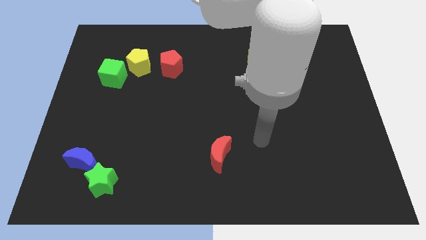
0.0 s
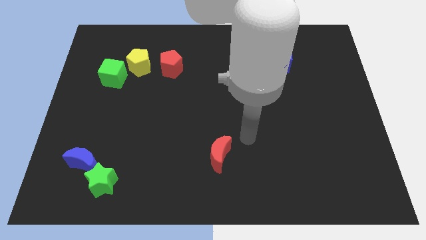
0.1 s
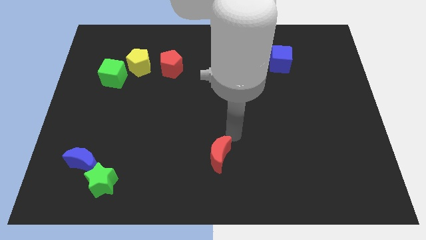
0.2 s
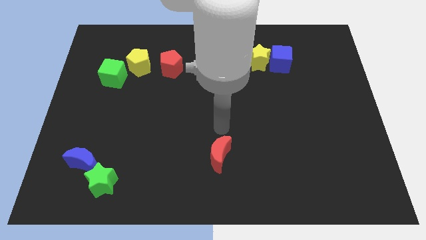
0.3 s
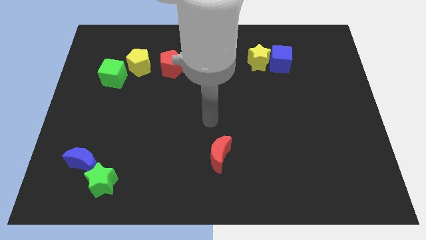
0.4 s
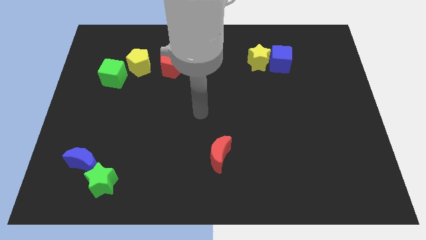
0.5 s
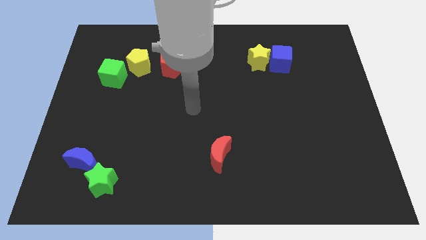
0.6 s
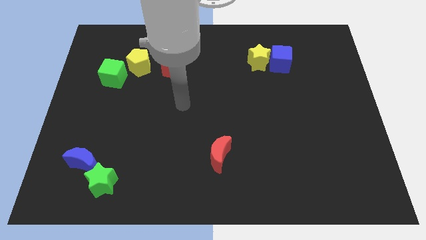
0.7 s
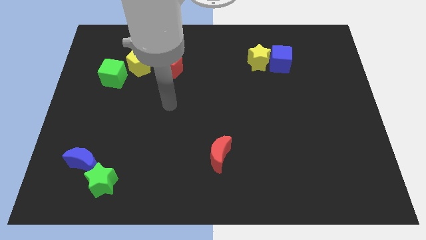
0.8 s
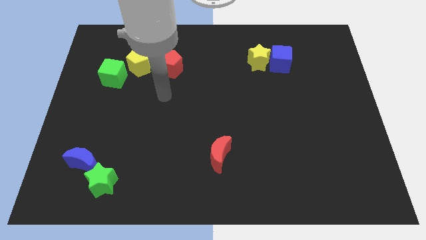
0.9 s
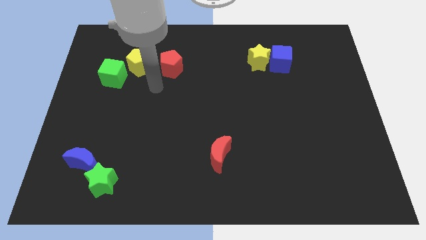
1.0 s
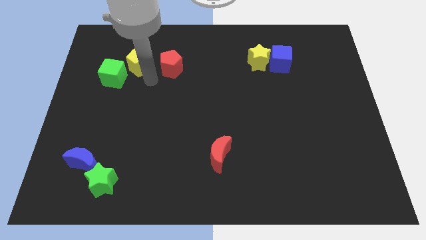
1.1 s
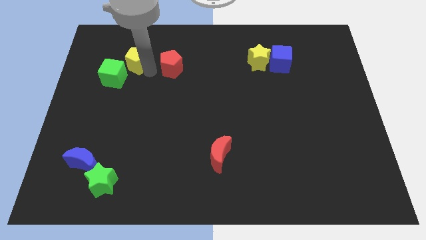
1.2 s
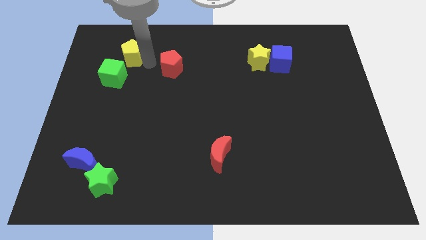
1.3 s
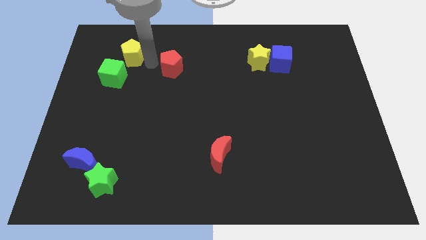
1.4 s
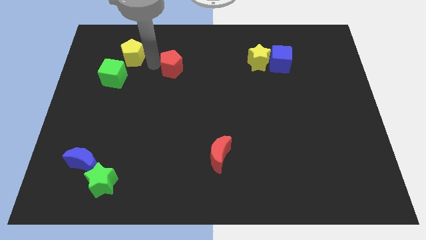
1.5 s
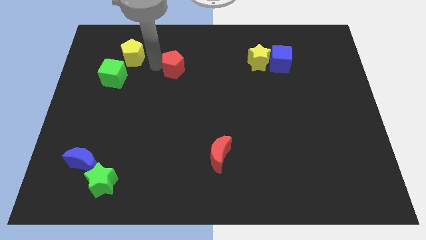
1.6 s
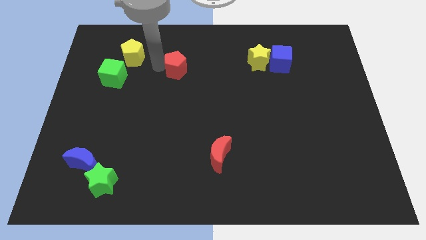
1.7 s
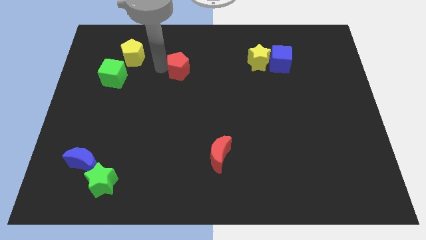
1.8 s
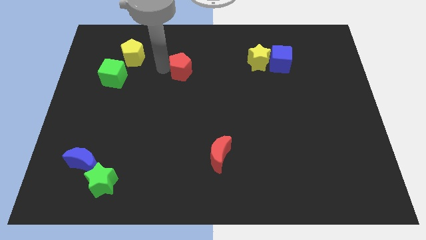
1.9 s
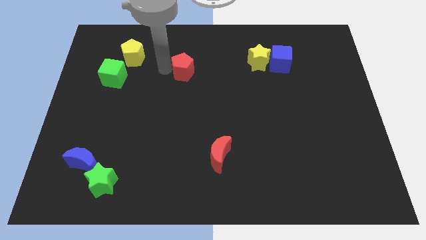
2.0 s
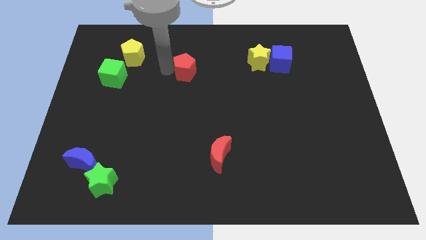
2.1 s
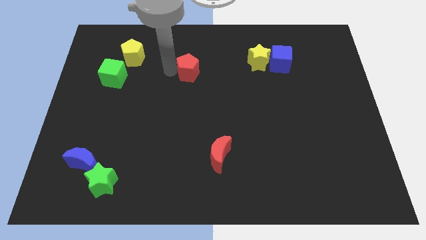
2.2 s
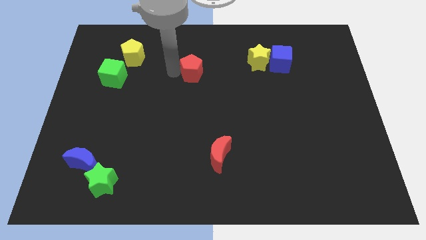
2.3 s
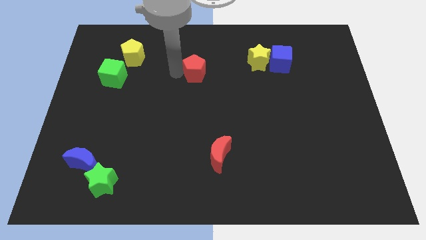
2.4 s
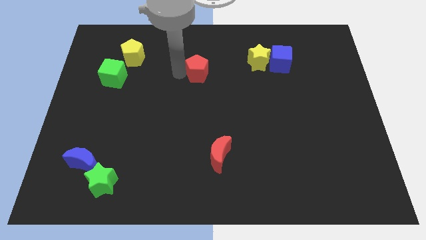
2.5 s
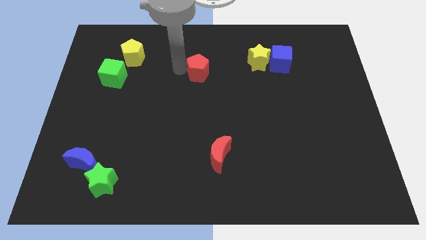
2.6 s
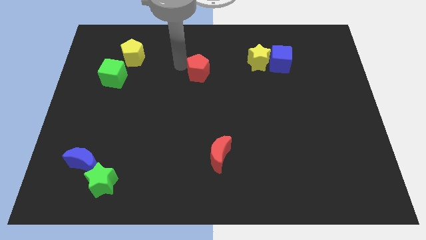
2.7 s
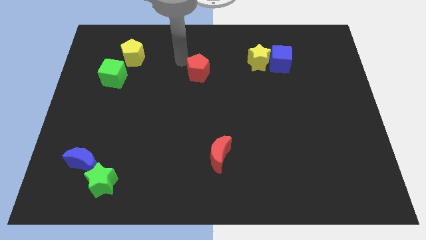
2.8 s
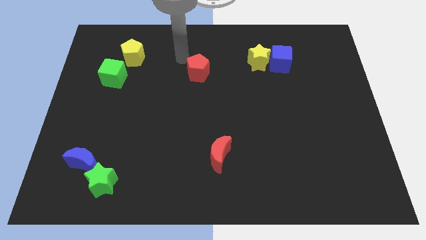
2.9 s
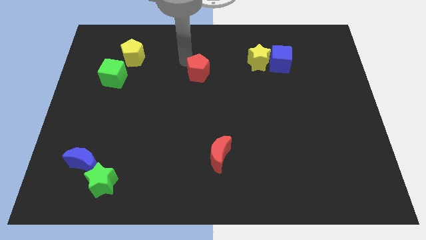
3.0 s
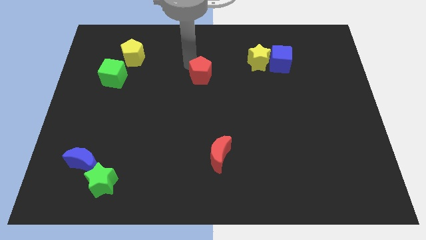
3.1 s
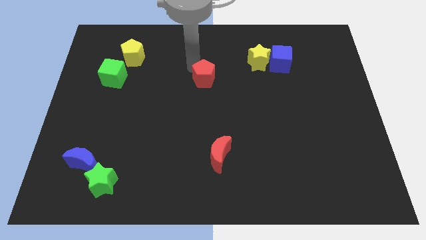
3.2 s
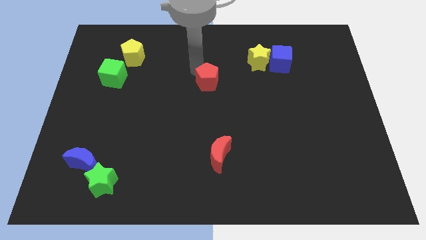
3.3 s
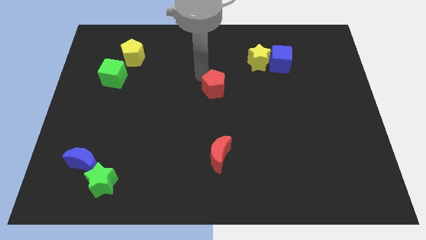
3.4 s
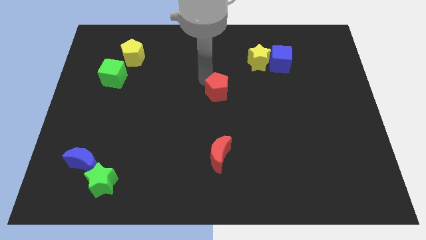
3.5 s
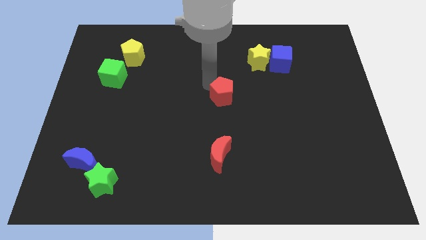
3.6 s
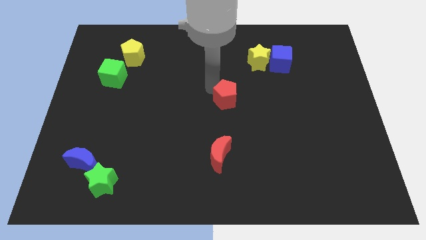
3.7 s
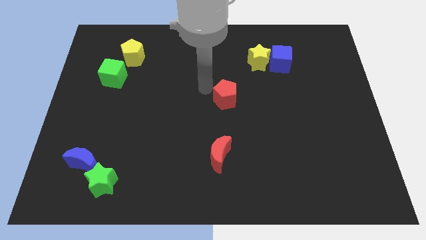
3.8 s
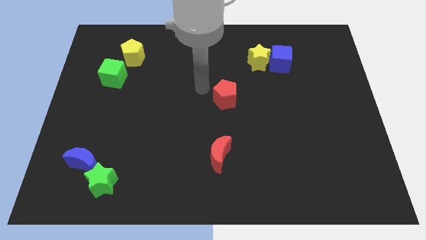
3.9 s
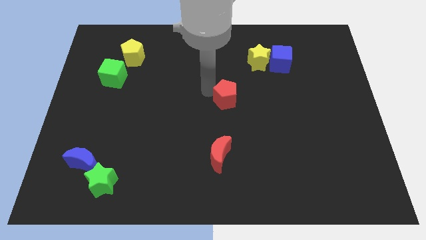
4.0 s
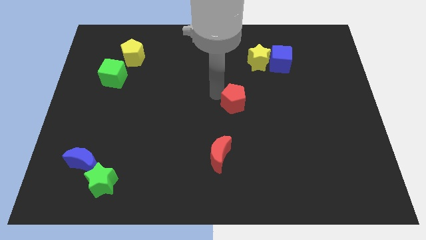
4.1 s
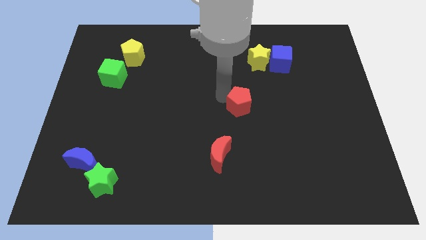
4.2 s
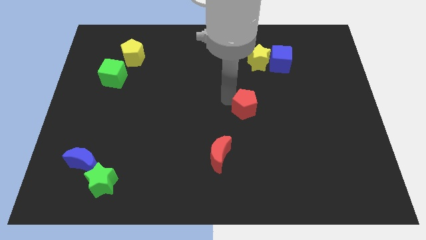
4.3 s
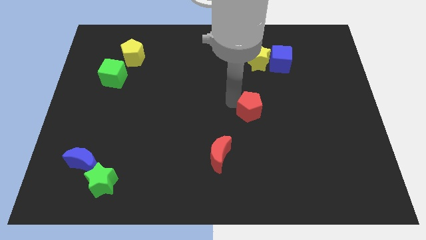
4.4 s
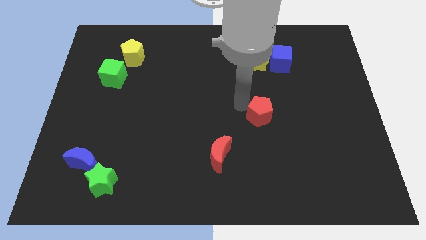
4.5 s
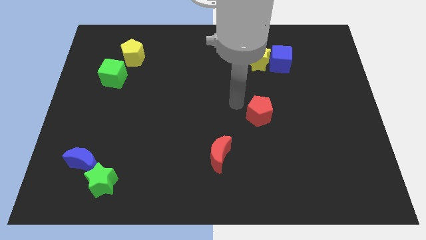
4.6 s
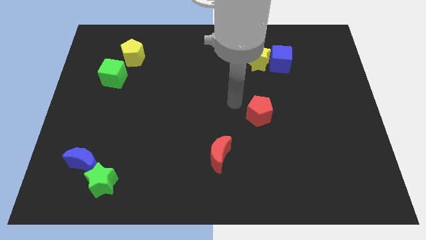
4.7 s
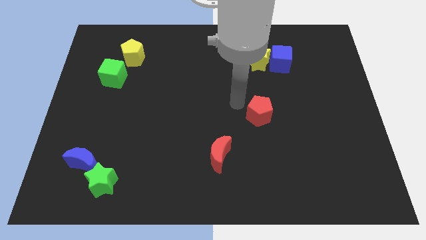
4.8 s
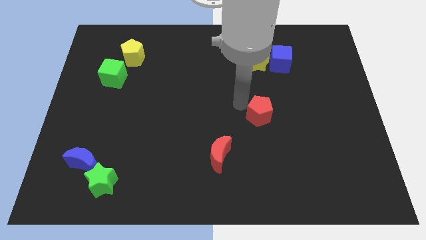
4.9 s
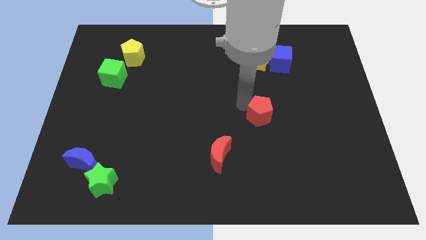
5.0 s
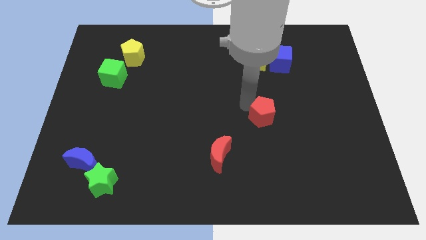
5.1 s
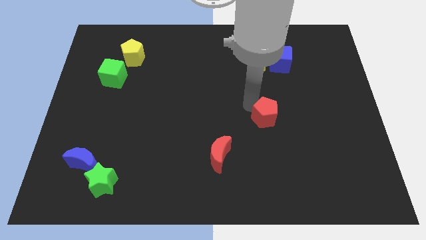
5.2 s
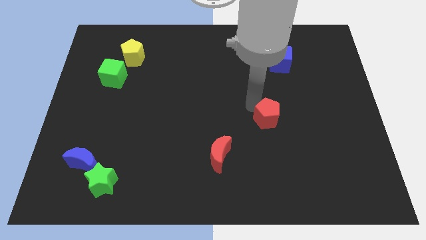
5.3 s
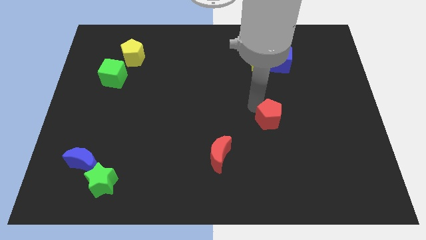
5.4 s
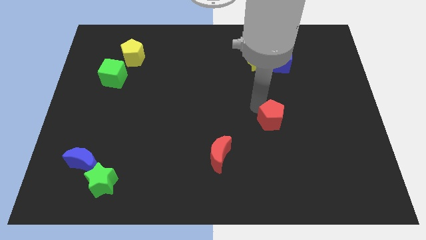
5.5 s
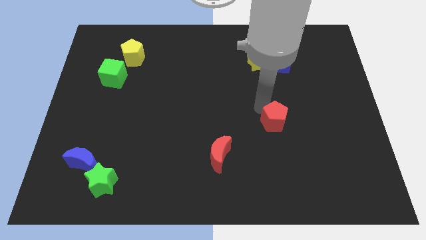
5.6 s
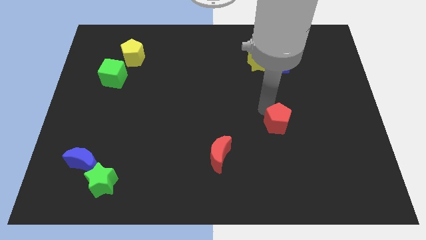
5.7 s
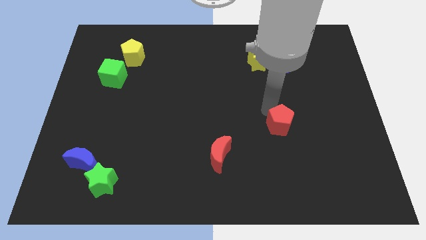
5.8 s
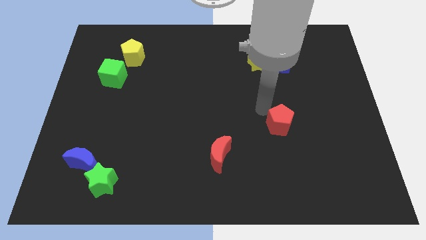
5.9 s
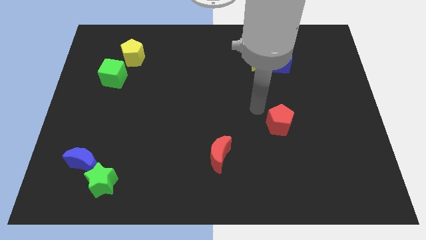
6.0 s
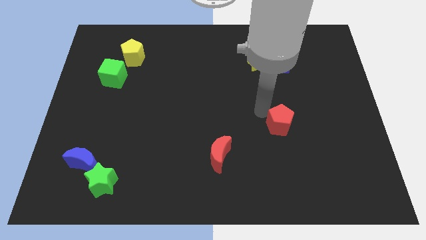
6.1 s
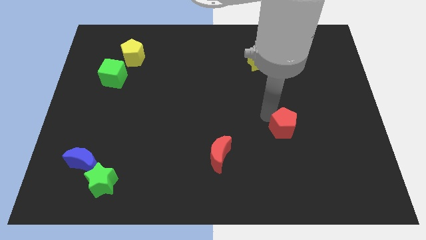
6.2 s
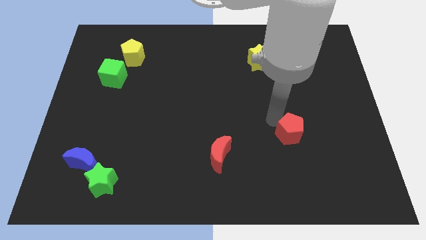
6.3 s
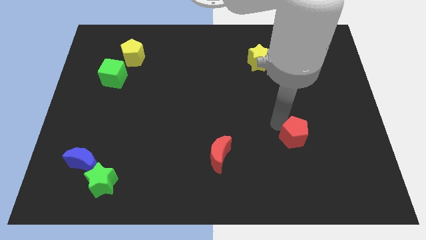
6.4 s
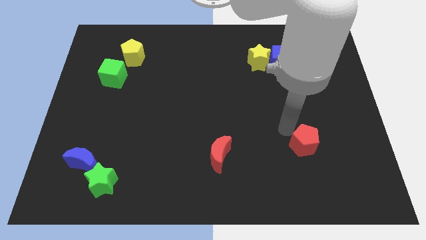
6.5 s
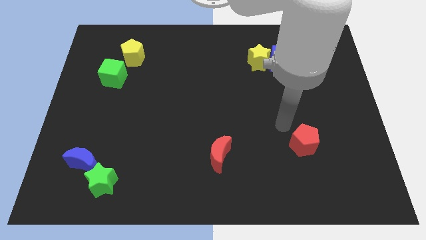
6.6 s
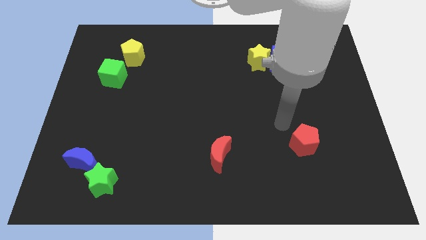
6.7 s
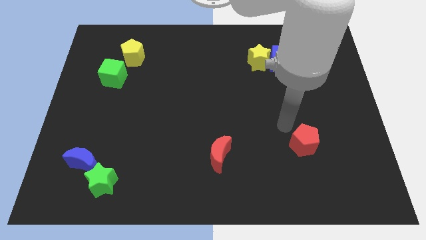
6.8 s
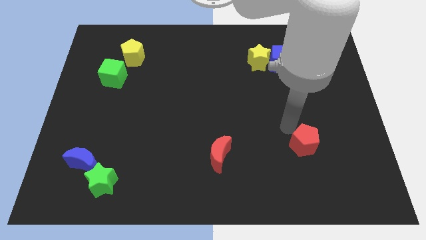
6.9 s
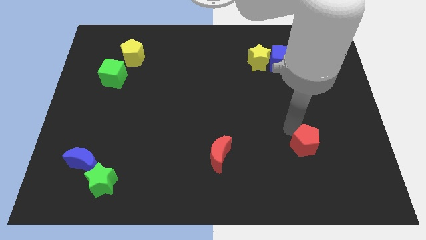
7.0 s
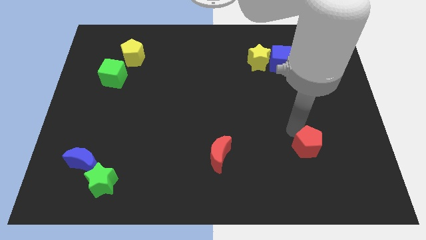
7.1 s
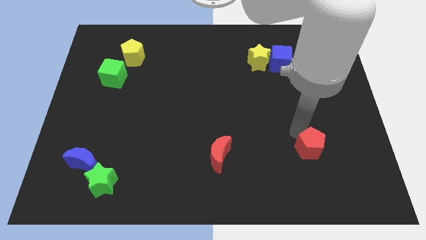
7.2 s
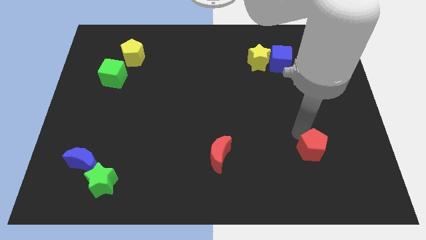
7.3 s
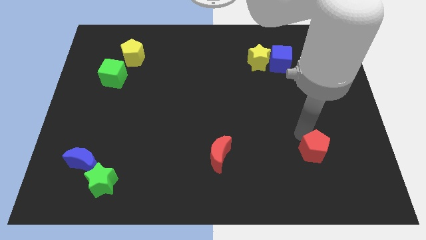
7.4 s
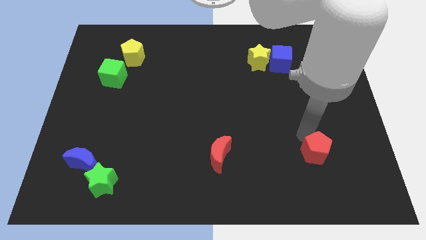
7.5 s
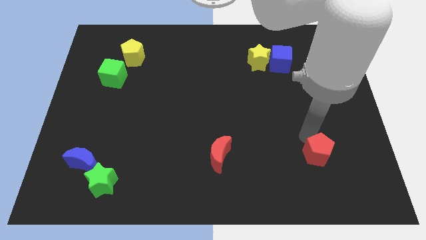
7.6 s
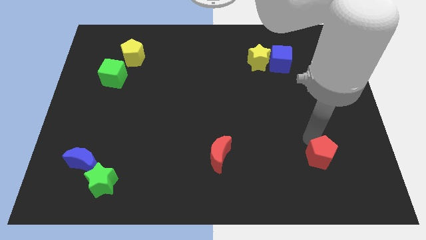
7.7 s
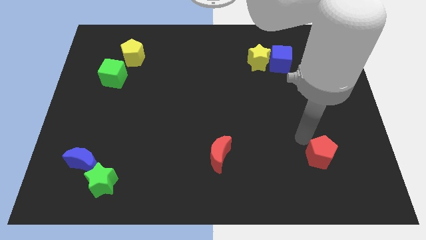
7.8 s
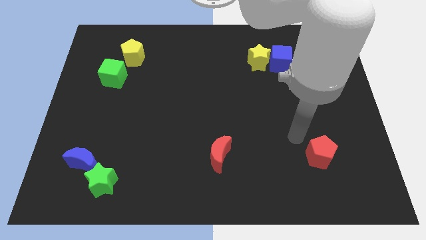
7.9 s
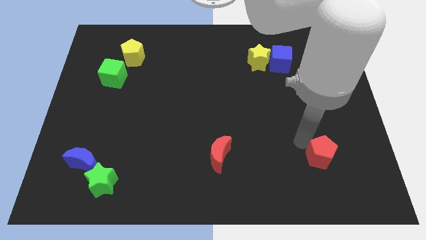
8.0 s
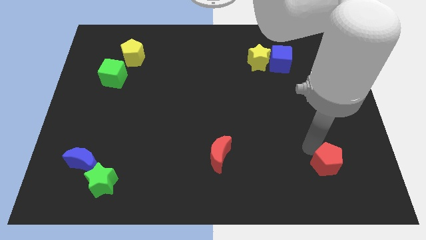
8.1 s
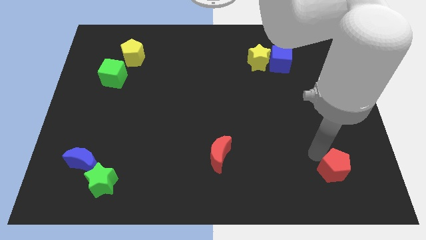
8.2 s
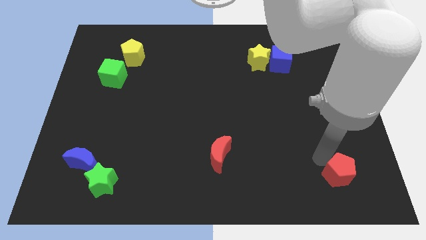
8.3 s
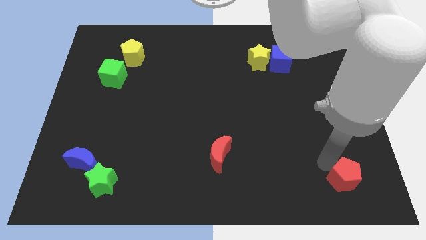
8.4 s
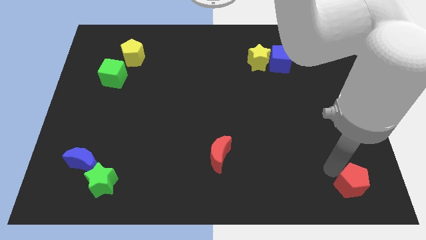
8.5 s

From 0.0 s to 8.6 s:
slide the red pentagon to the bottom right corner
